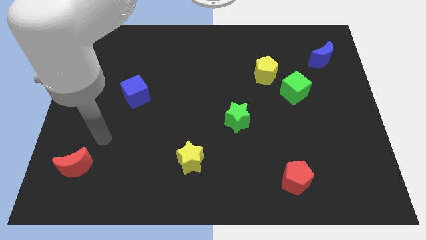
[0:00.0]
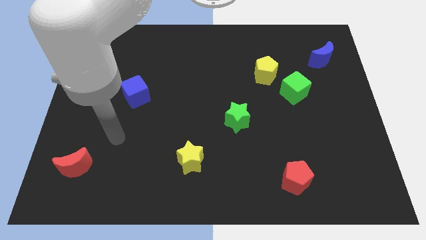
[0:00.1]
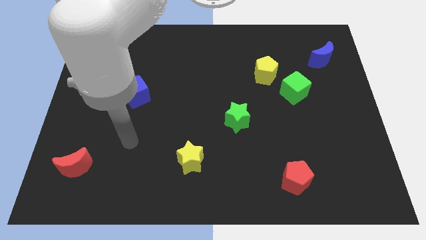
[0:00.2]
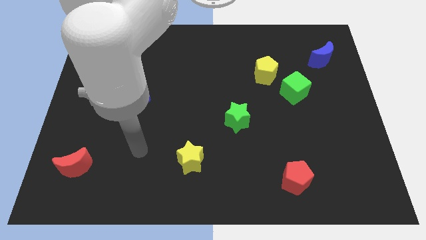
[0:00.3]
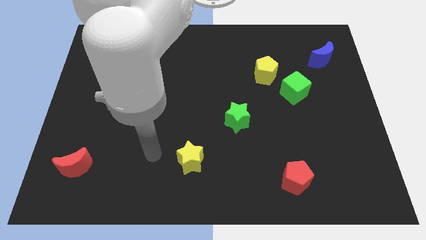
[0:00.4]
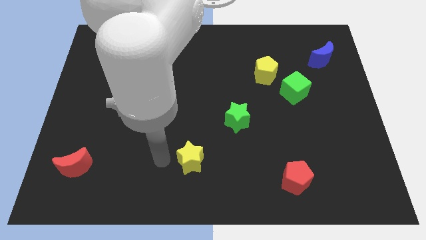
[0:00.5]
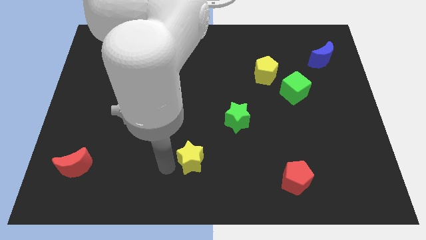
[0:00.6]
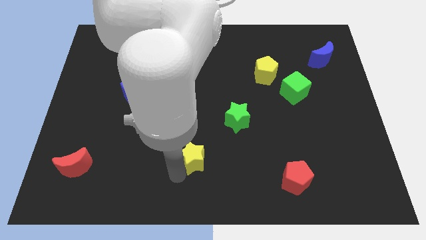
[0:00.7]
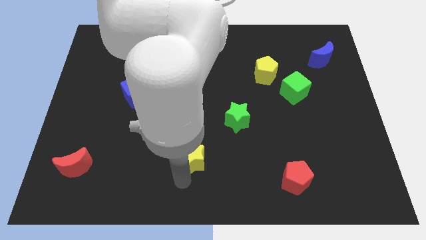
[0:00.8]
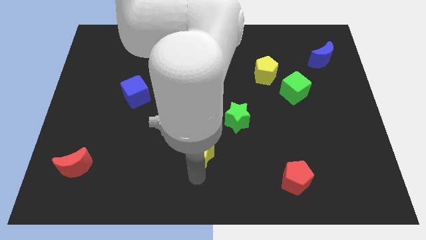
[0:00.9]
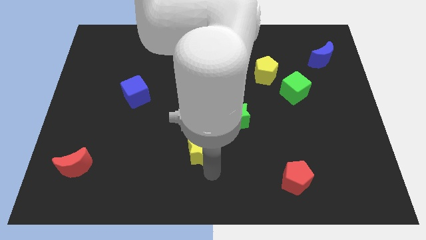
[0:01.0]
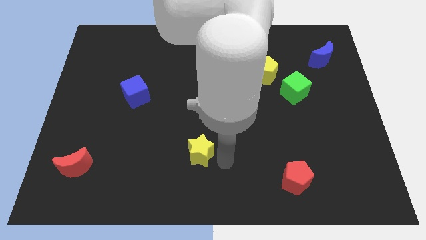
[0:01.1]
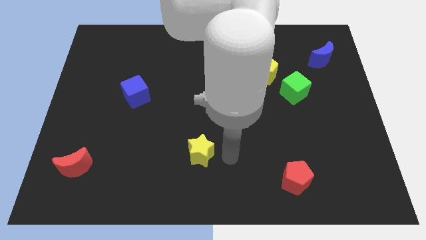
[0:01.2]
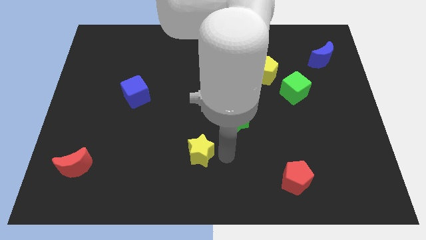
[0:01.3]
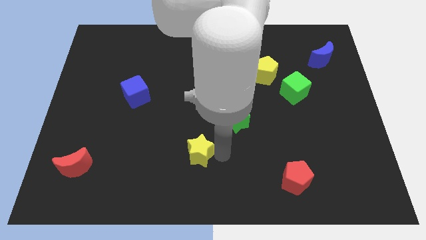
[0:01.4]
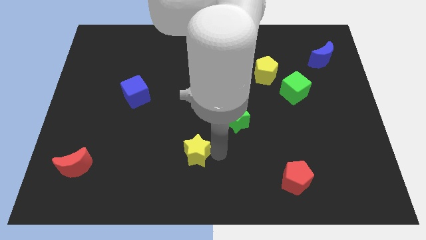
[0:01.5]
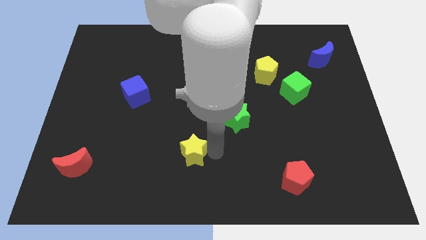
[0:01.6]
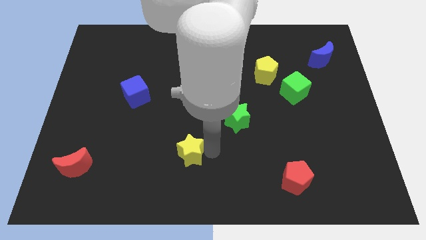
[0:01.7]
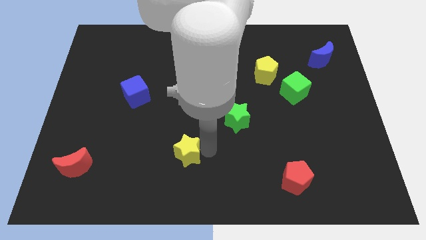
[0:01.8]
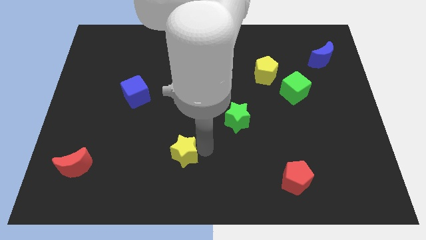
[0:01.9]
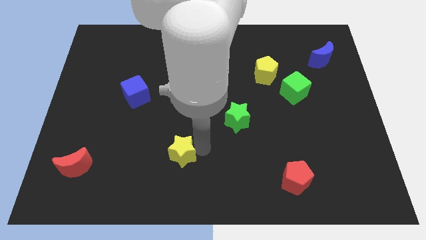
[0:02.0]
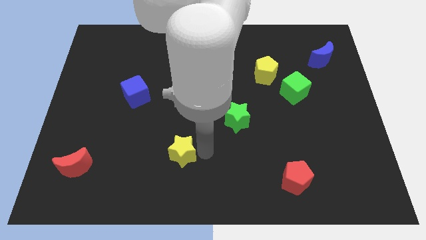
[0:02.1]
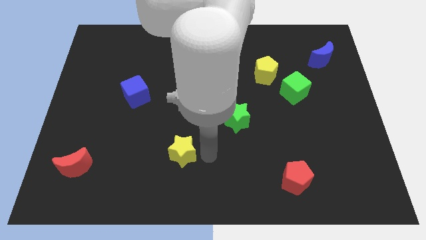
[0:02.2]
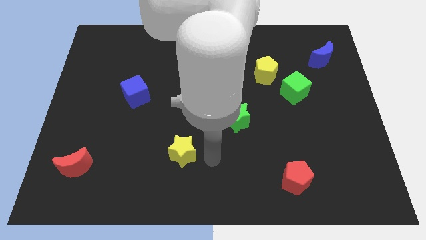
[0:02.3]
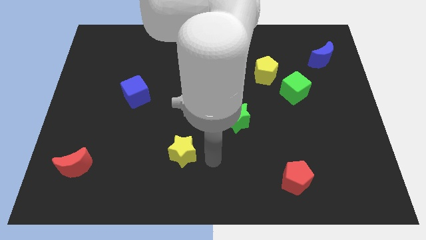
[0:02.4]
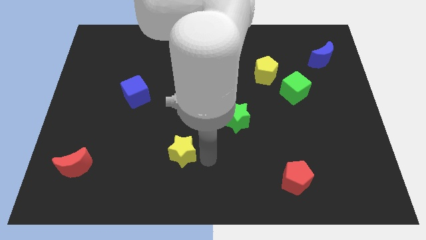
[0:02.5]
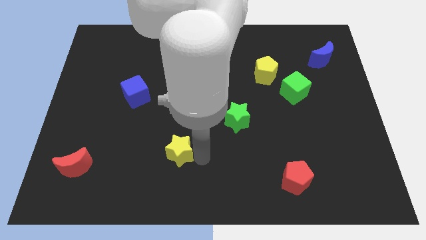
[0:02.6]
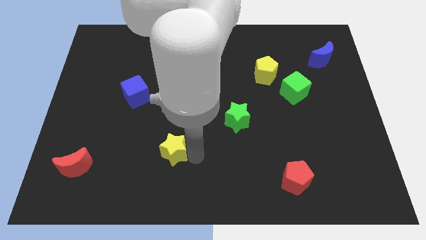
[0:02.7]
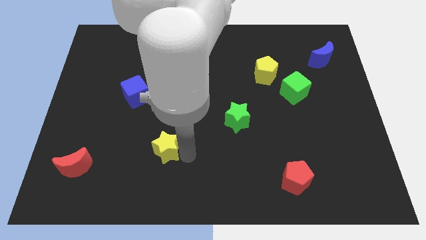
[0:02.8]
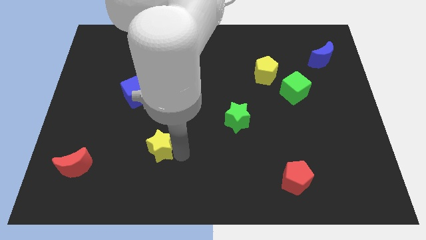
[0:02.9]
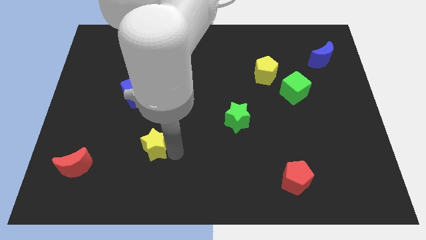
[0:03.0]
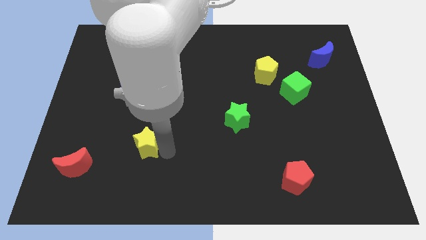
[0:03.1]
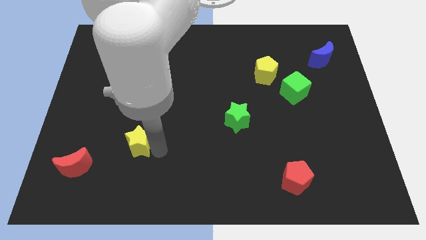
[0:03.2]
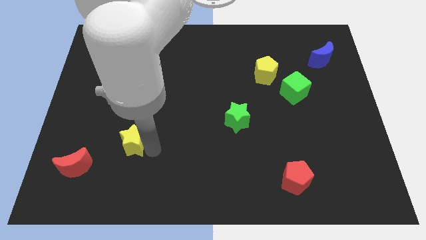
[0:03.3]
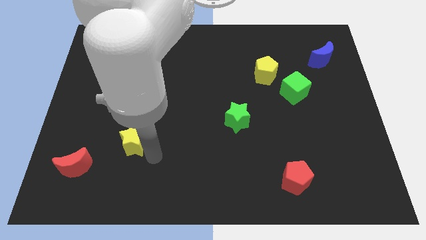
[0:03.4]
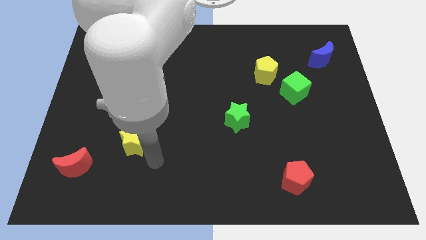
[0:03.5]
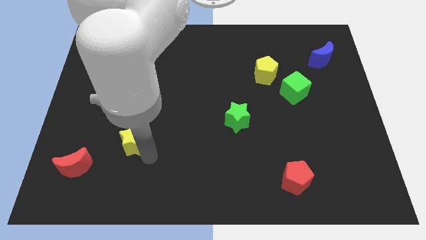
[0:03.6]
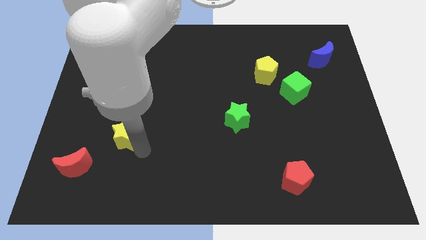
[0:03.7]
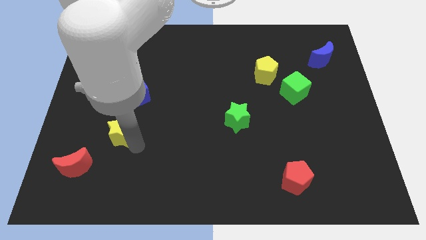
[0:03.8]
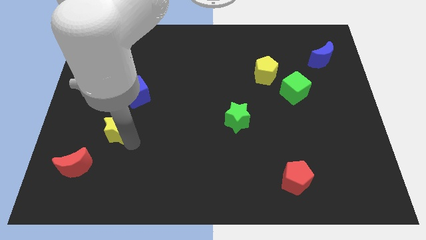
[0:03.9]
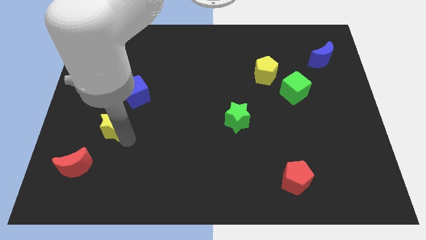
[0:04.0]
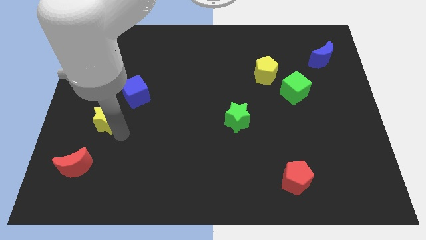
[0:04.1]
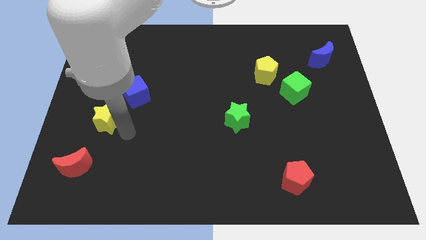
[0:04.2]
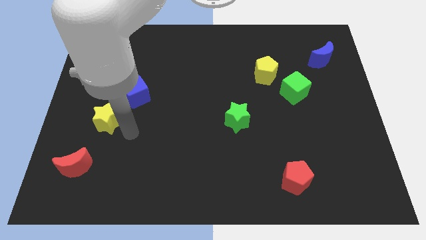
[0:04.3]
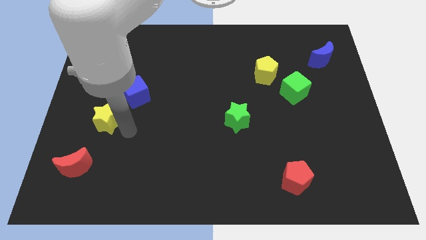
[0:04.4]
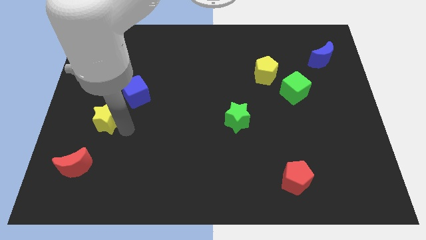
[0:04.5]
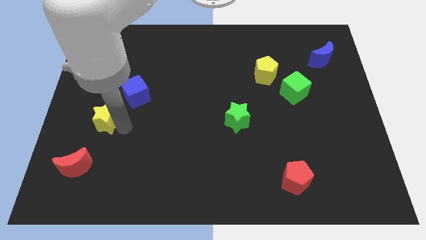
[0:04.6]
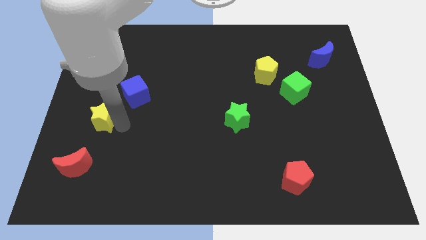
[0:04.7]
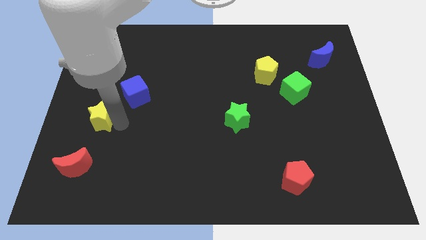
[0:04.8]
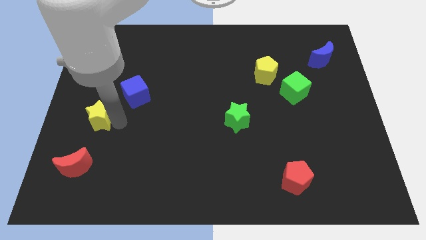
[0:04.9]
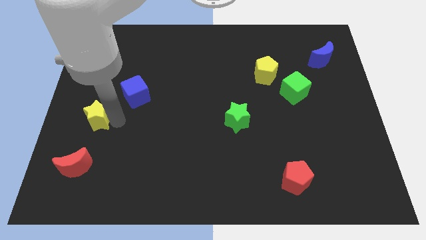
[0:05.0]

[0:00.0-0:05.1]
slide the yellow star to the left side

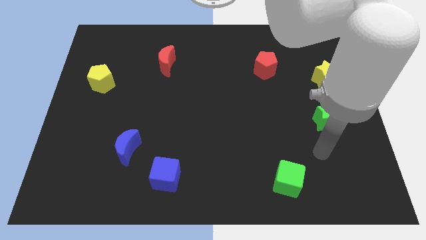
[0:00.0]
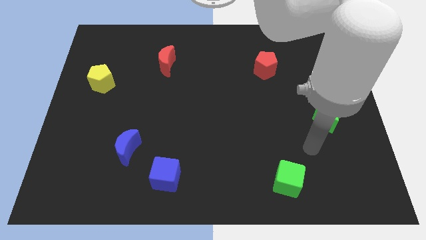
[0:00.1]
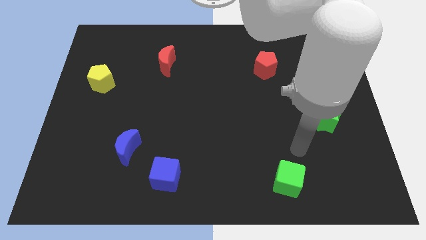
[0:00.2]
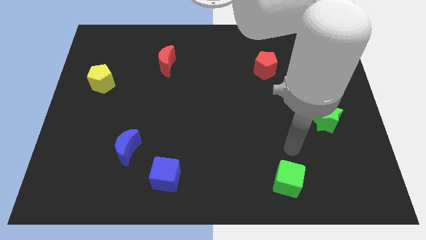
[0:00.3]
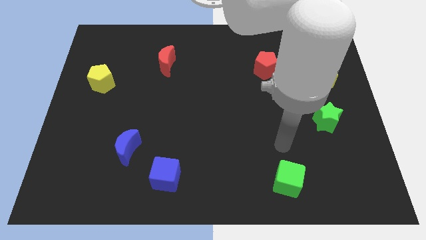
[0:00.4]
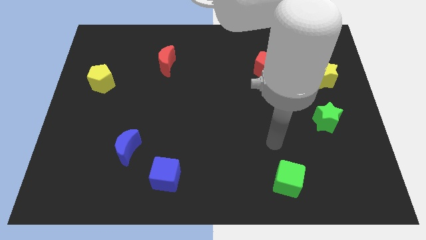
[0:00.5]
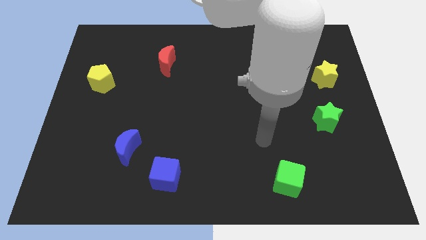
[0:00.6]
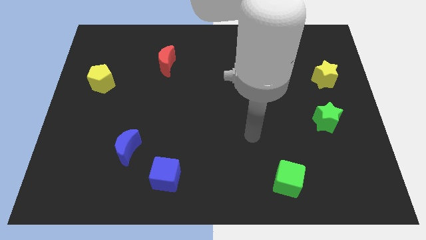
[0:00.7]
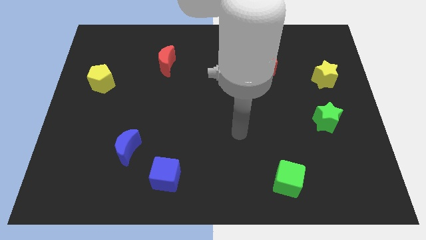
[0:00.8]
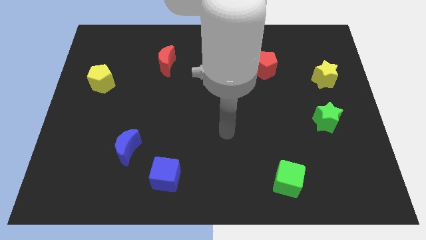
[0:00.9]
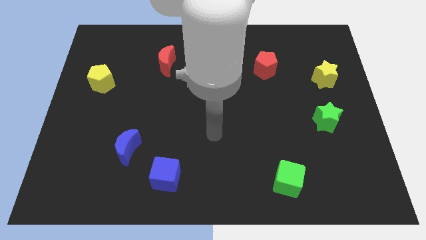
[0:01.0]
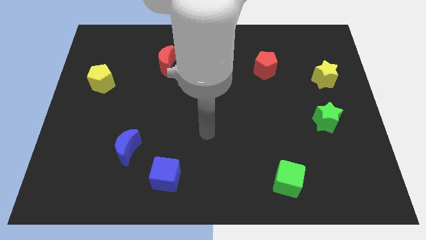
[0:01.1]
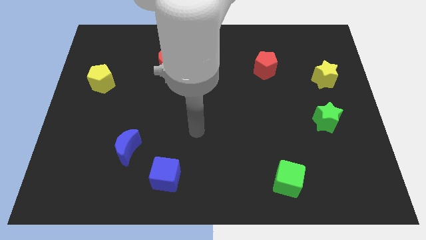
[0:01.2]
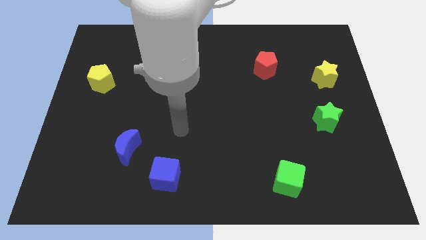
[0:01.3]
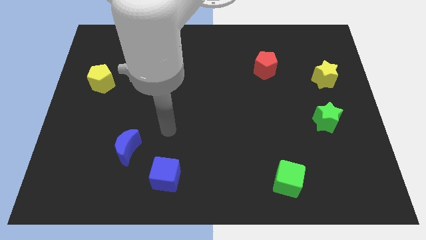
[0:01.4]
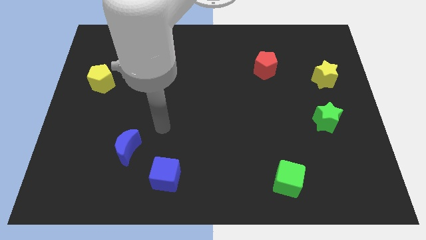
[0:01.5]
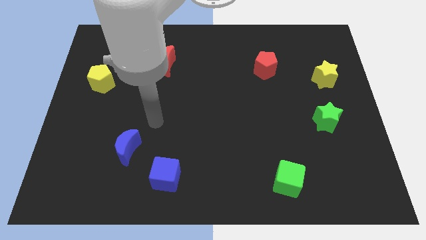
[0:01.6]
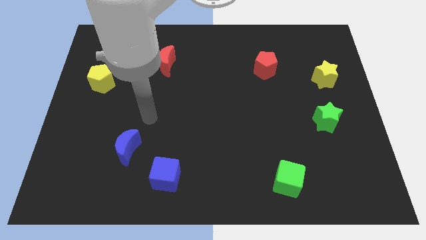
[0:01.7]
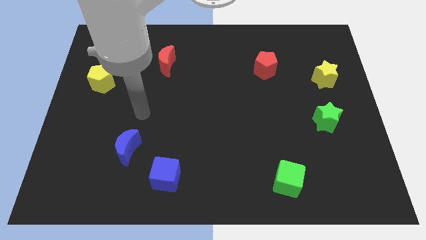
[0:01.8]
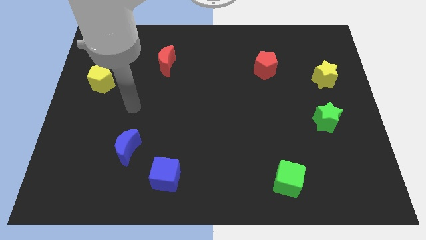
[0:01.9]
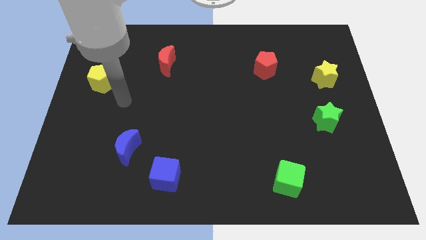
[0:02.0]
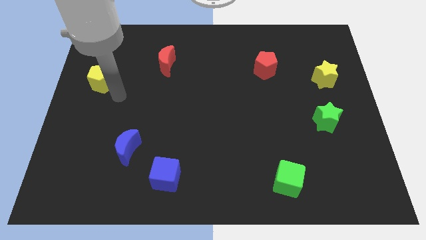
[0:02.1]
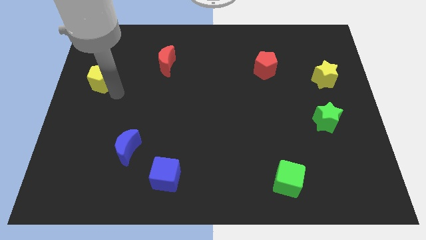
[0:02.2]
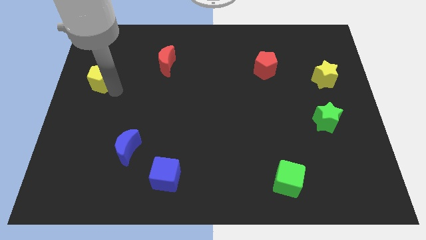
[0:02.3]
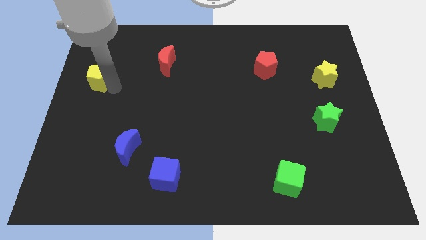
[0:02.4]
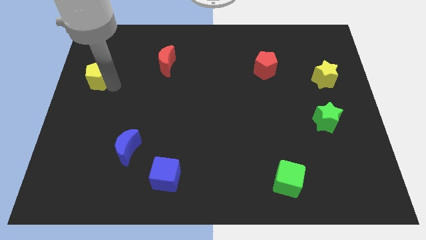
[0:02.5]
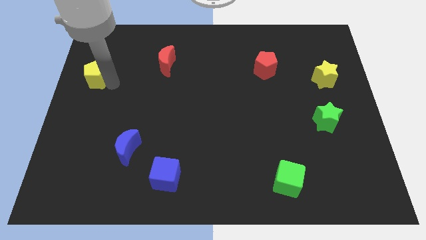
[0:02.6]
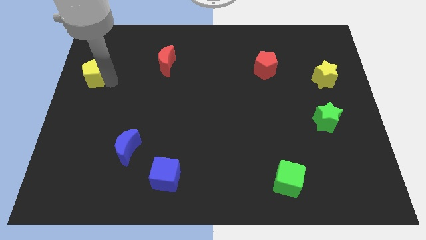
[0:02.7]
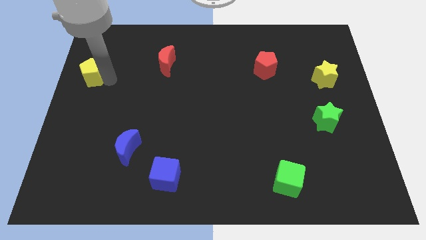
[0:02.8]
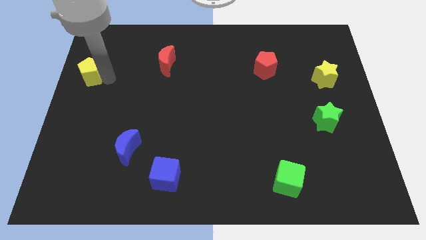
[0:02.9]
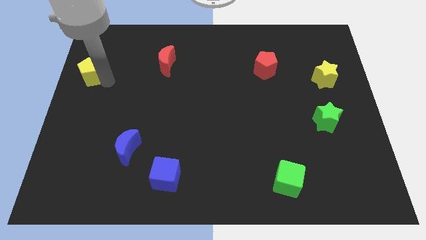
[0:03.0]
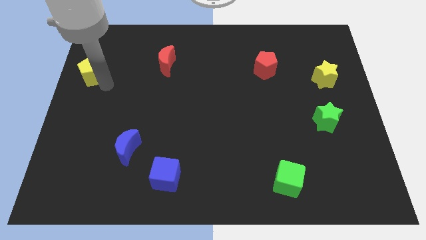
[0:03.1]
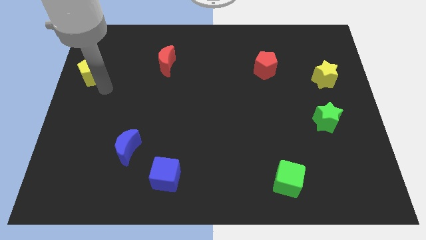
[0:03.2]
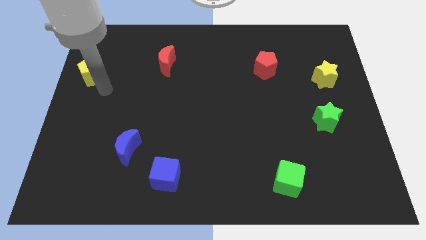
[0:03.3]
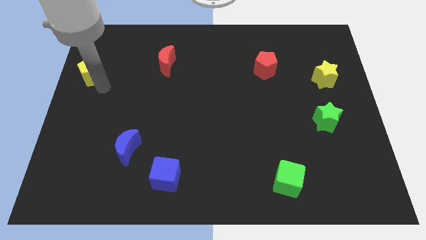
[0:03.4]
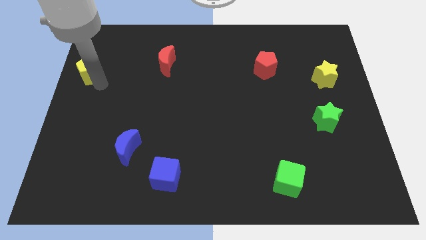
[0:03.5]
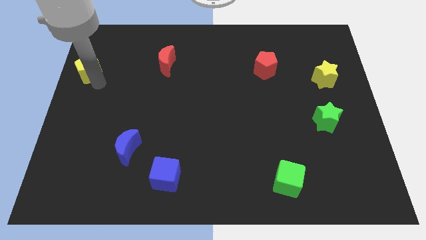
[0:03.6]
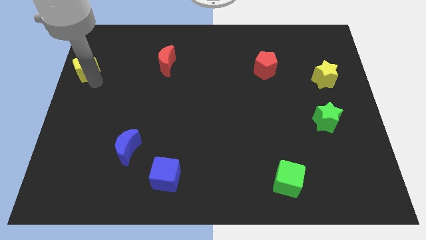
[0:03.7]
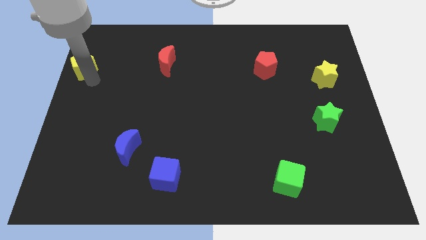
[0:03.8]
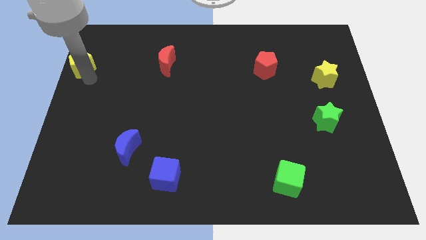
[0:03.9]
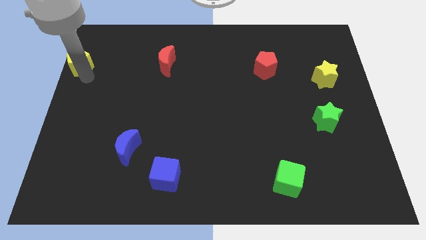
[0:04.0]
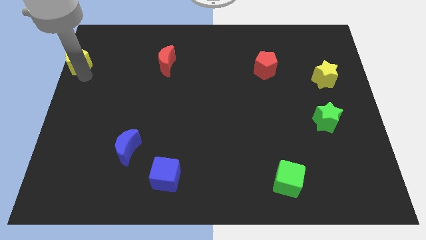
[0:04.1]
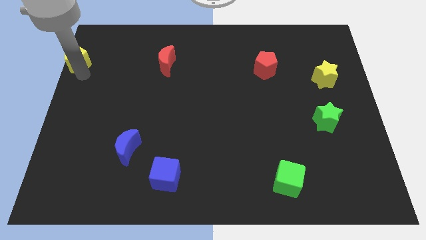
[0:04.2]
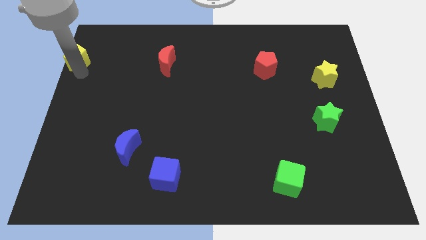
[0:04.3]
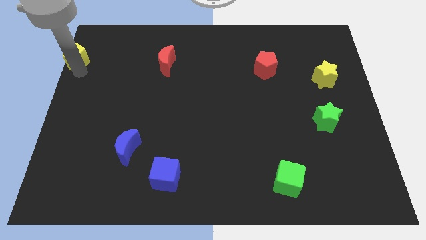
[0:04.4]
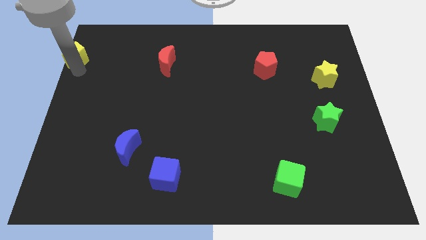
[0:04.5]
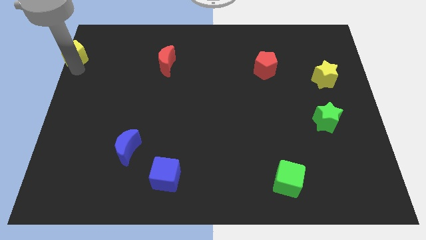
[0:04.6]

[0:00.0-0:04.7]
put the yellow pentagon to the top left corner
